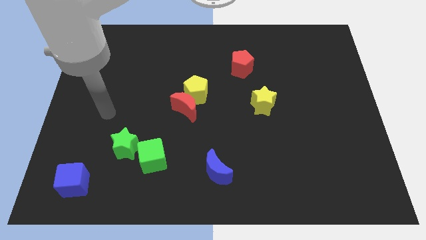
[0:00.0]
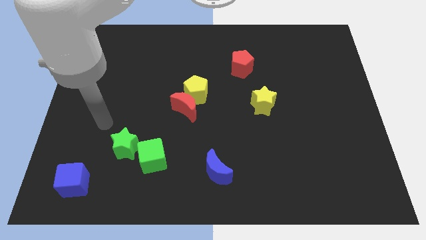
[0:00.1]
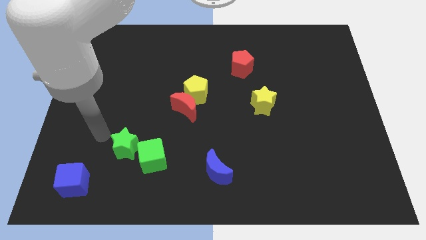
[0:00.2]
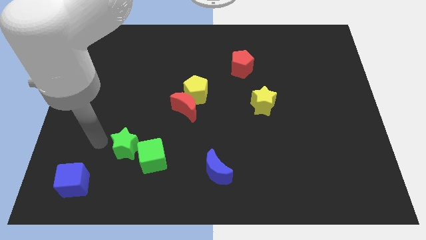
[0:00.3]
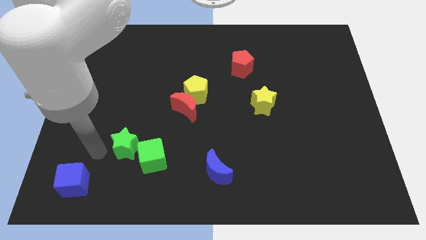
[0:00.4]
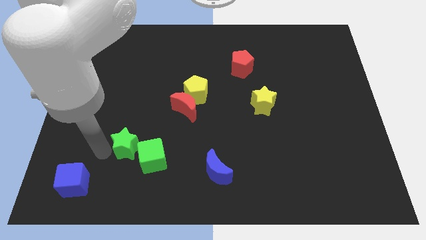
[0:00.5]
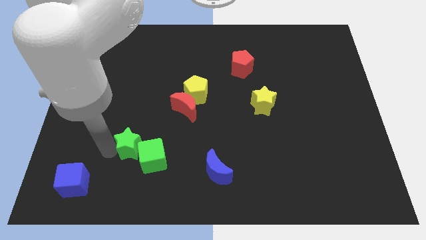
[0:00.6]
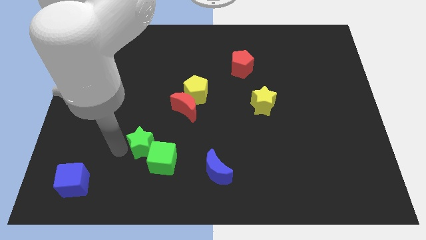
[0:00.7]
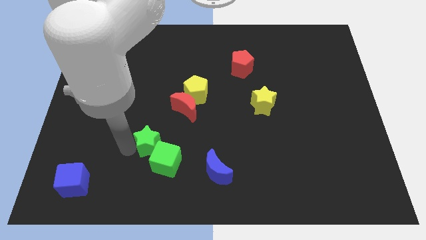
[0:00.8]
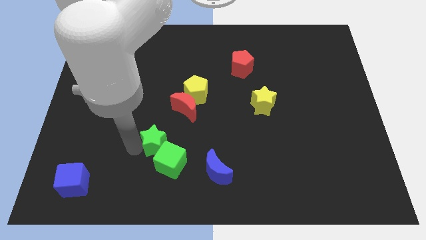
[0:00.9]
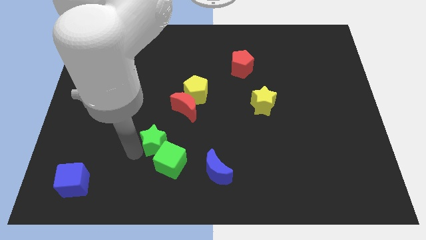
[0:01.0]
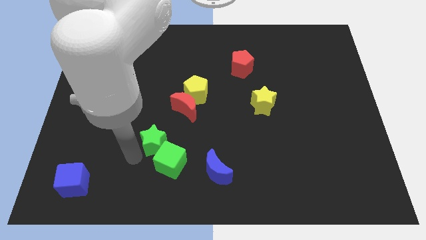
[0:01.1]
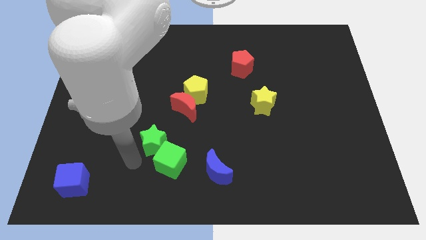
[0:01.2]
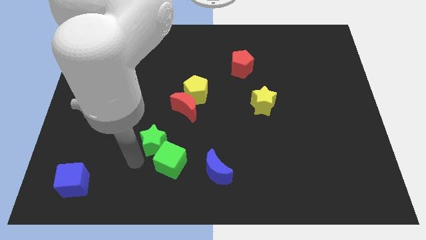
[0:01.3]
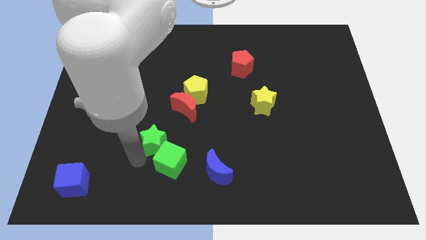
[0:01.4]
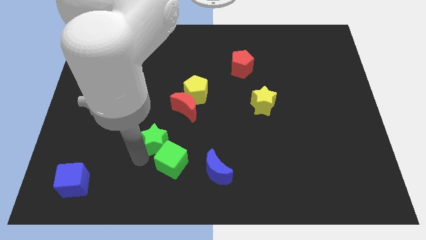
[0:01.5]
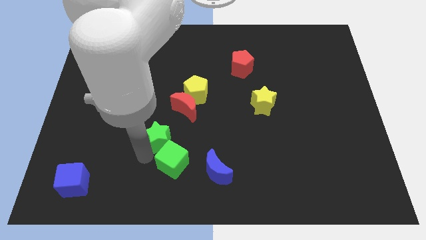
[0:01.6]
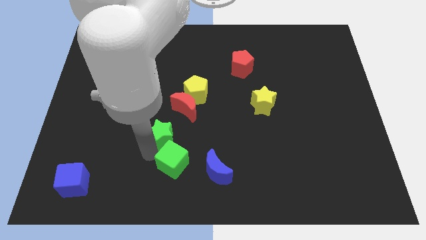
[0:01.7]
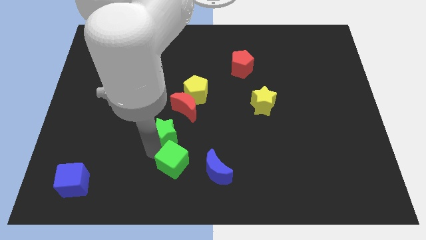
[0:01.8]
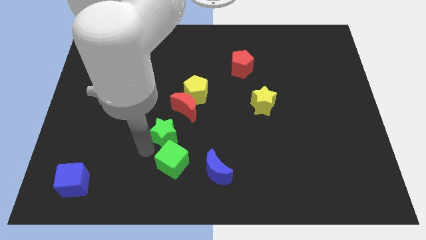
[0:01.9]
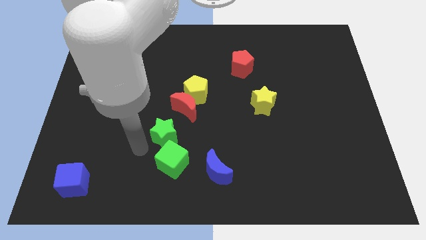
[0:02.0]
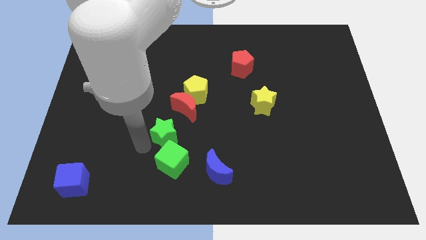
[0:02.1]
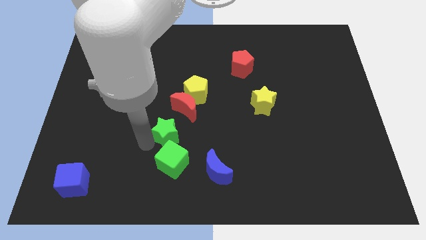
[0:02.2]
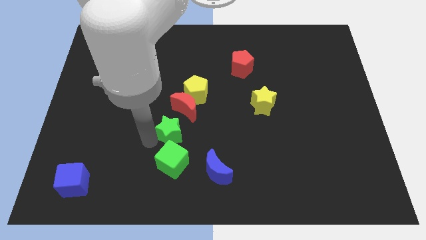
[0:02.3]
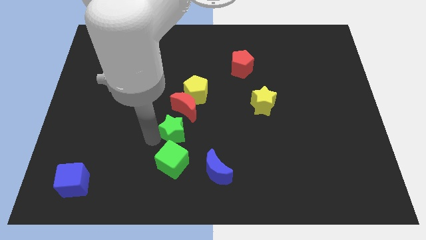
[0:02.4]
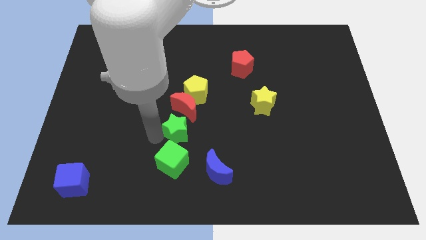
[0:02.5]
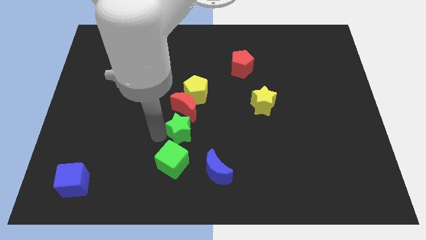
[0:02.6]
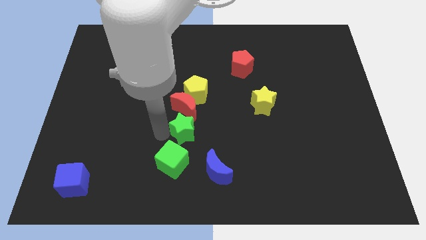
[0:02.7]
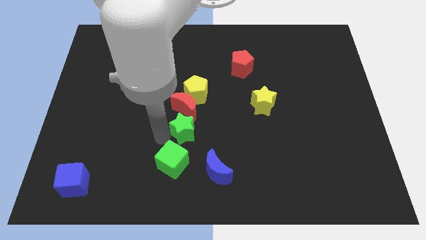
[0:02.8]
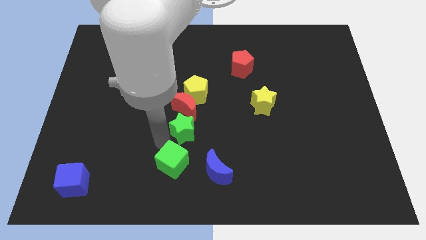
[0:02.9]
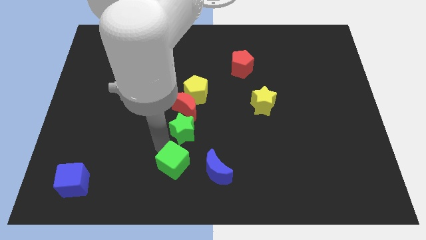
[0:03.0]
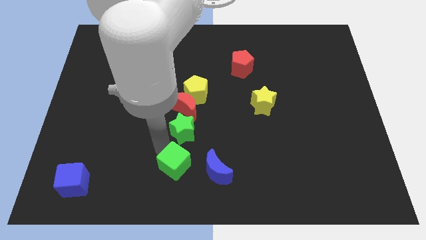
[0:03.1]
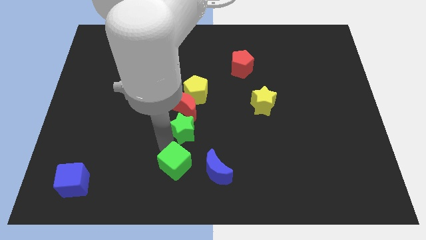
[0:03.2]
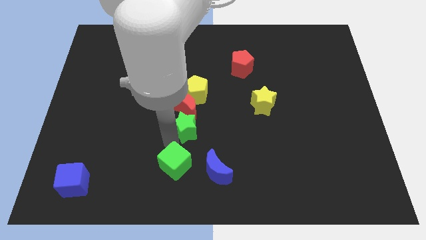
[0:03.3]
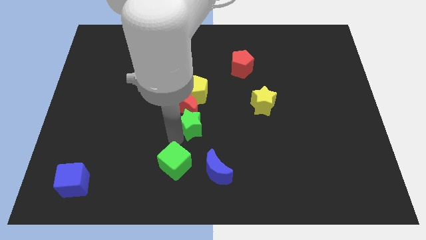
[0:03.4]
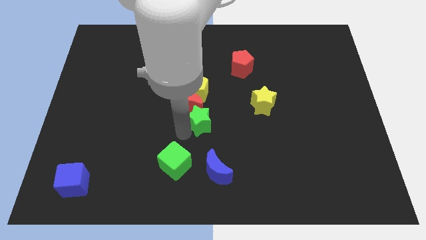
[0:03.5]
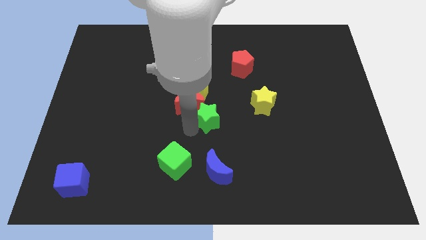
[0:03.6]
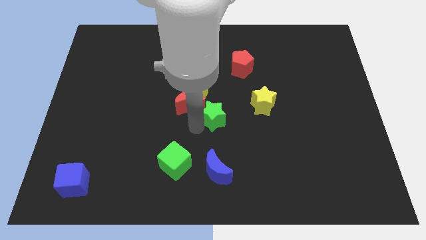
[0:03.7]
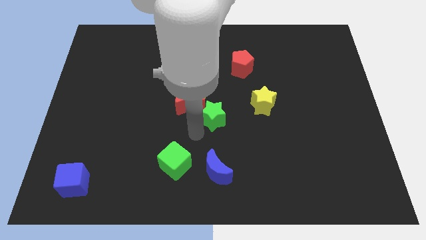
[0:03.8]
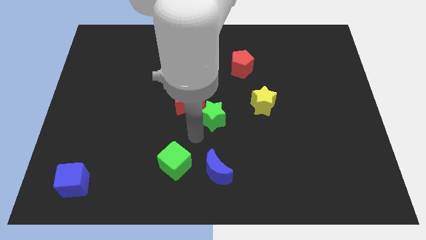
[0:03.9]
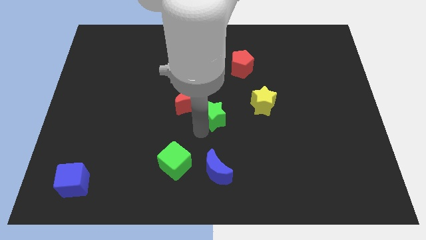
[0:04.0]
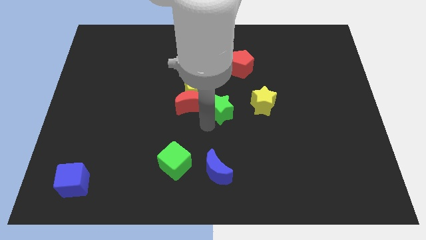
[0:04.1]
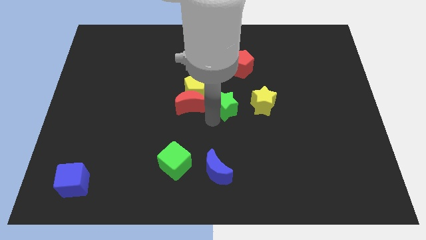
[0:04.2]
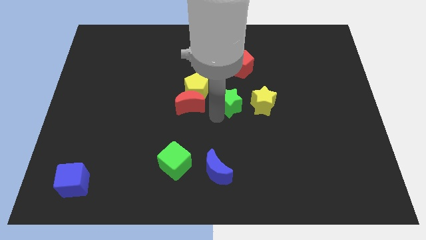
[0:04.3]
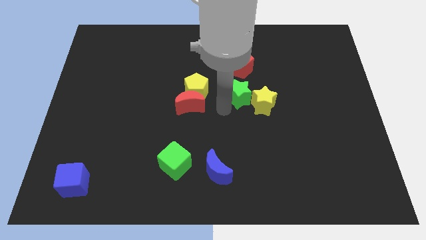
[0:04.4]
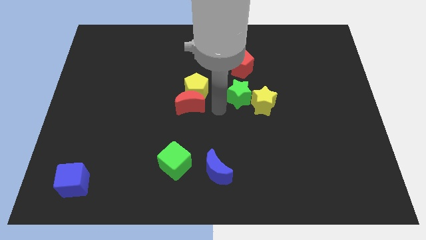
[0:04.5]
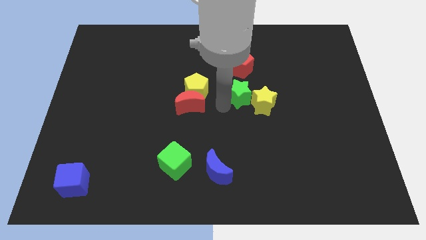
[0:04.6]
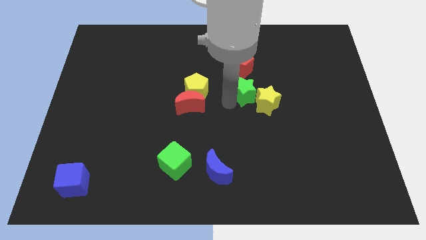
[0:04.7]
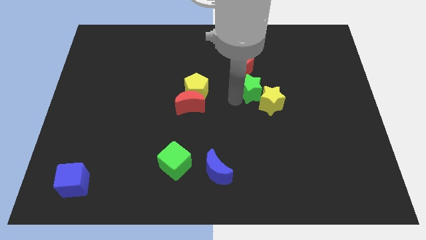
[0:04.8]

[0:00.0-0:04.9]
push the green star to the bottom right of the red pentagon

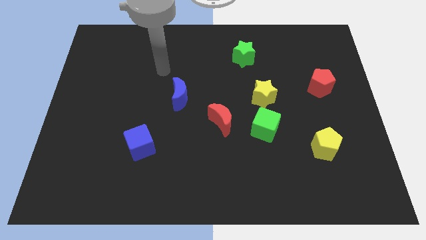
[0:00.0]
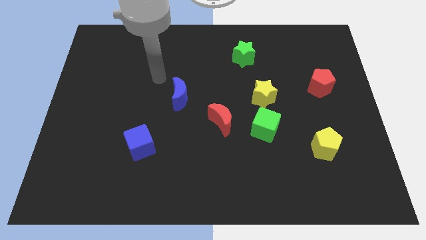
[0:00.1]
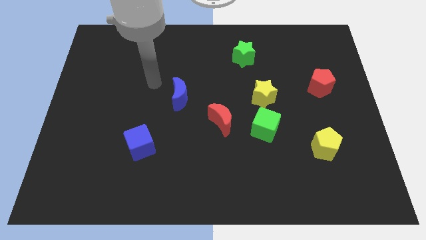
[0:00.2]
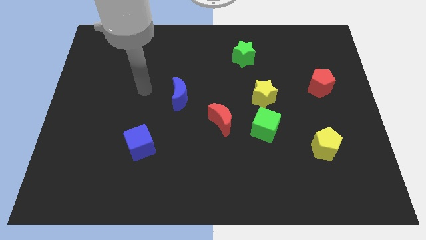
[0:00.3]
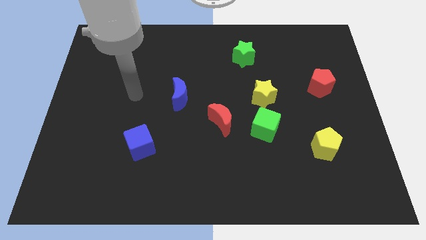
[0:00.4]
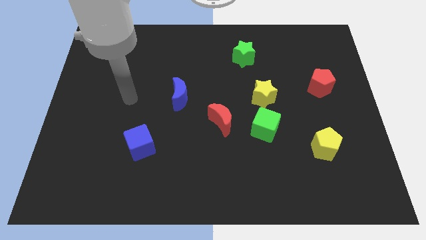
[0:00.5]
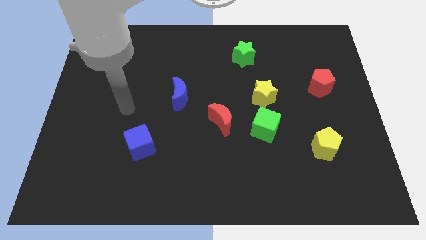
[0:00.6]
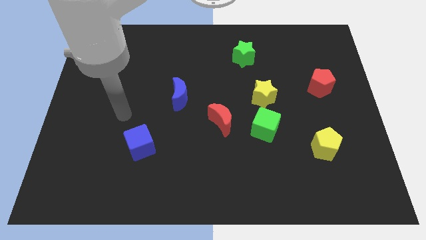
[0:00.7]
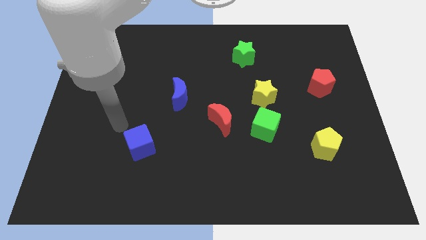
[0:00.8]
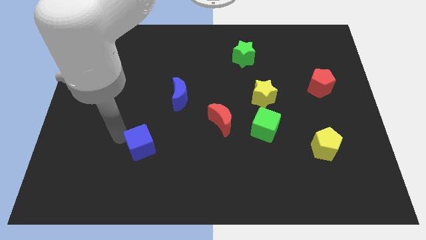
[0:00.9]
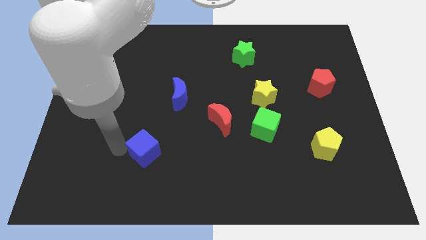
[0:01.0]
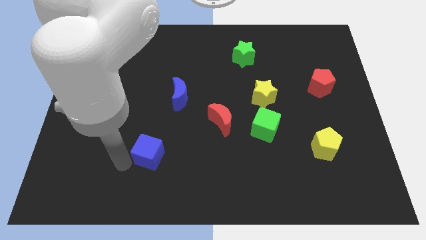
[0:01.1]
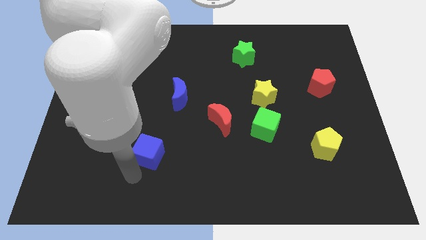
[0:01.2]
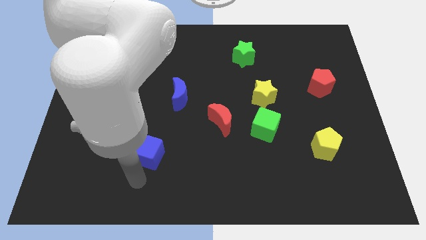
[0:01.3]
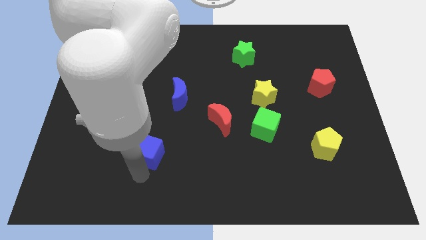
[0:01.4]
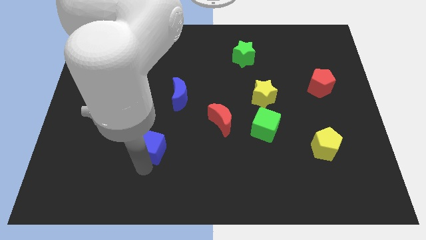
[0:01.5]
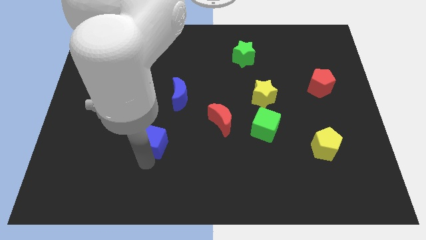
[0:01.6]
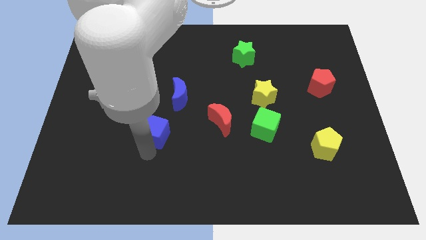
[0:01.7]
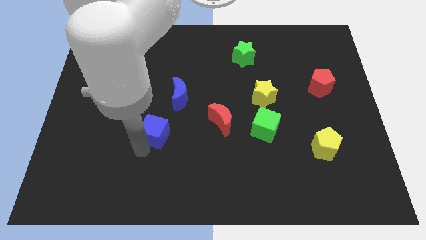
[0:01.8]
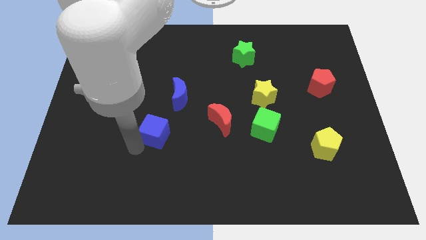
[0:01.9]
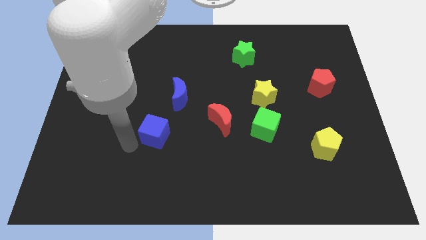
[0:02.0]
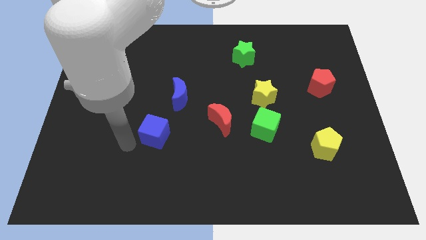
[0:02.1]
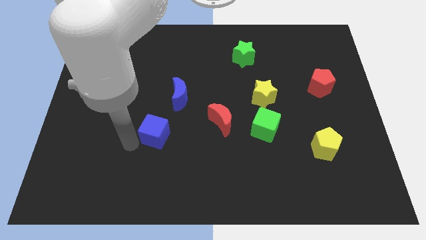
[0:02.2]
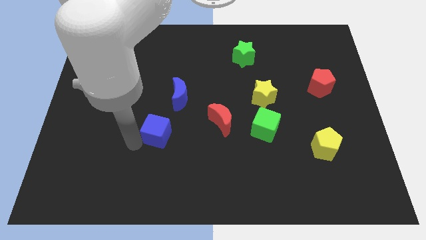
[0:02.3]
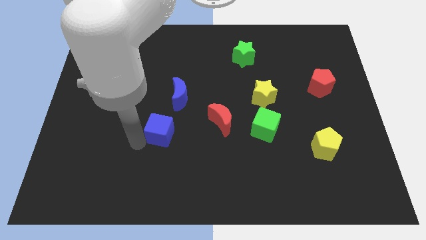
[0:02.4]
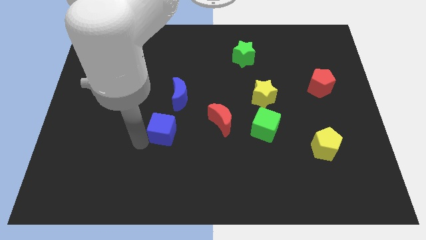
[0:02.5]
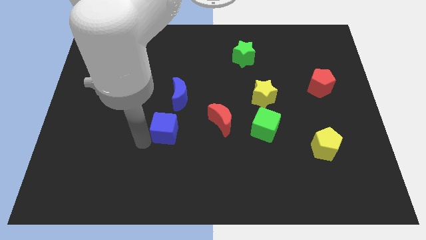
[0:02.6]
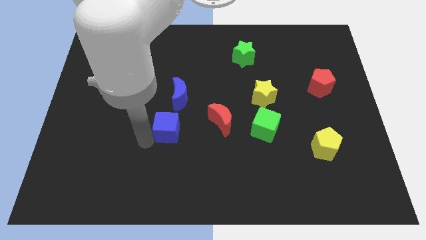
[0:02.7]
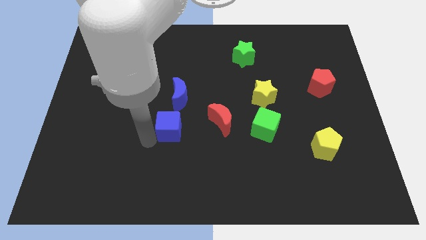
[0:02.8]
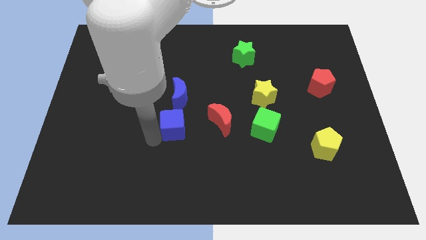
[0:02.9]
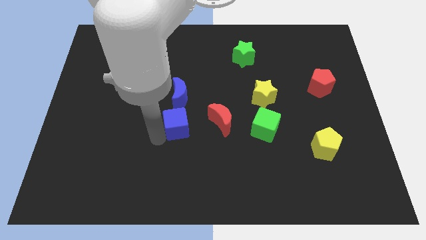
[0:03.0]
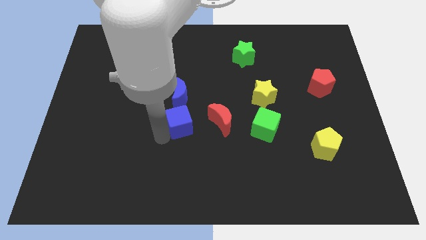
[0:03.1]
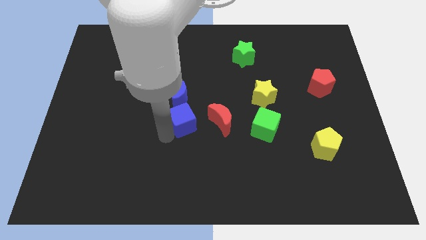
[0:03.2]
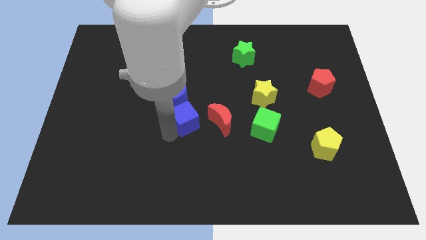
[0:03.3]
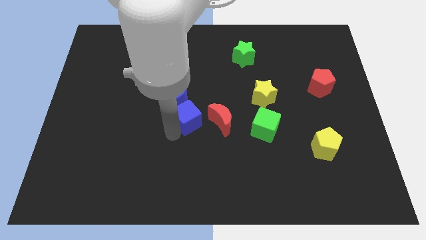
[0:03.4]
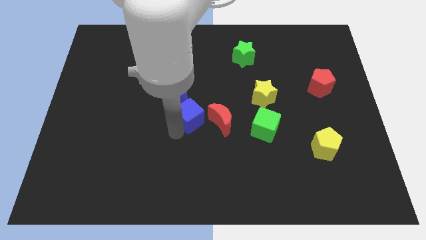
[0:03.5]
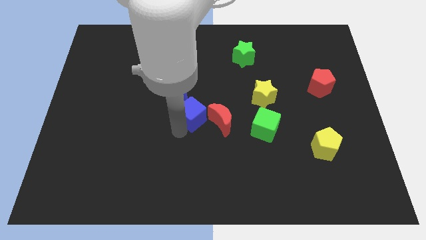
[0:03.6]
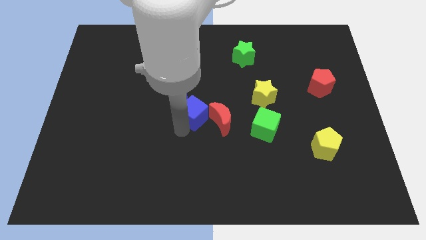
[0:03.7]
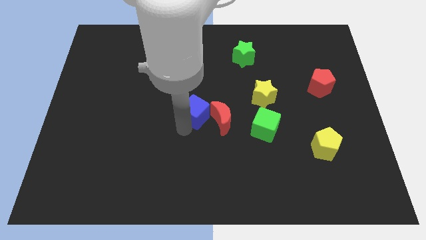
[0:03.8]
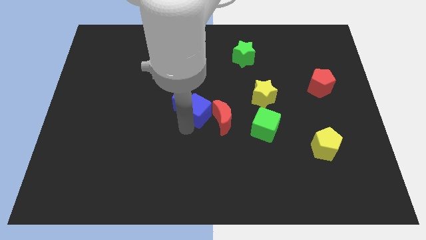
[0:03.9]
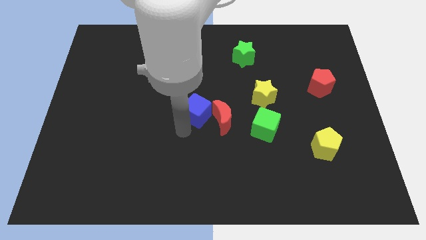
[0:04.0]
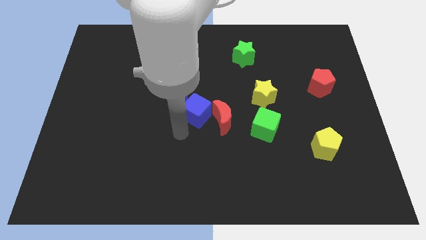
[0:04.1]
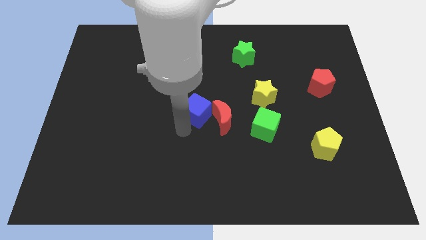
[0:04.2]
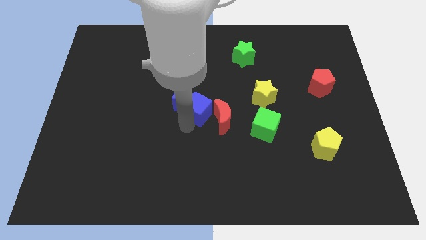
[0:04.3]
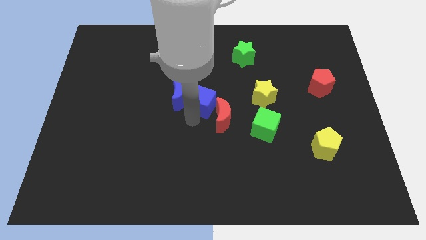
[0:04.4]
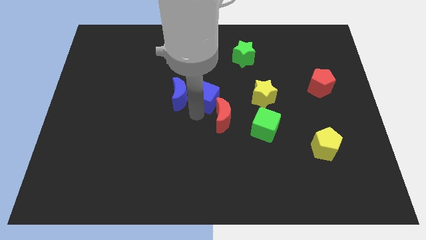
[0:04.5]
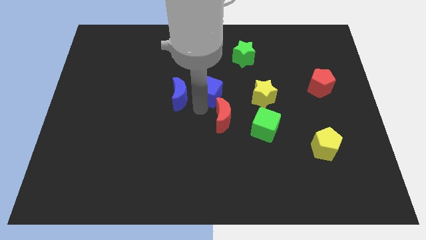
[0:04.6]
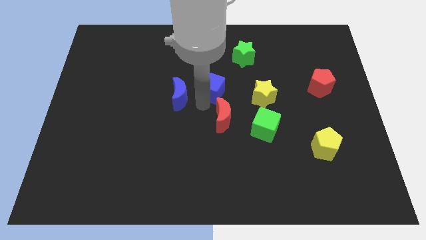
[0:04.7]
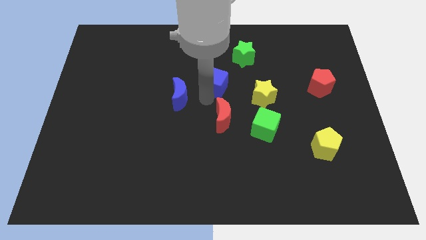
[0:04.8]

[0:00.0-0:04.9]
push the blue cube to the bottom left of the green star
